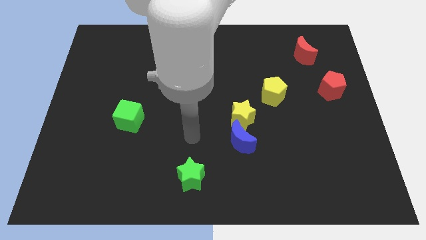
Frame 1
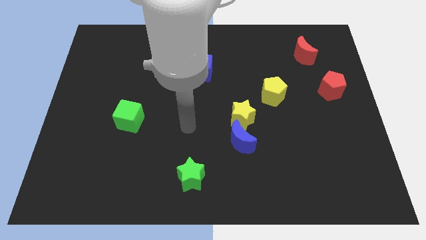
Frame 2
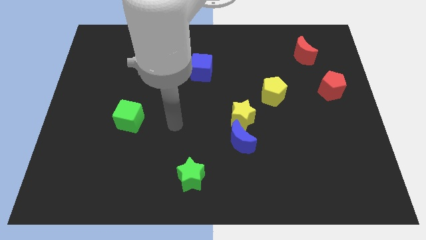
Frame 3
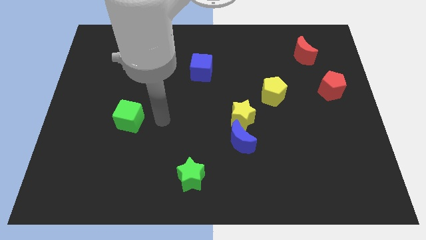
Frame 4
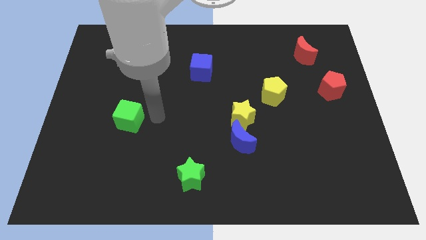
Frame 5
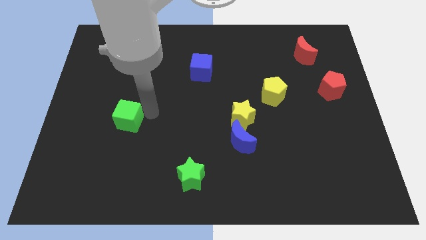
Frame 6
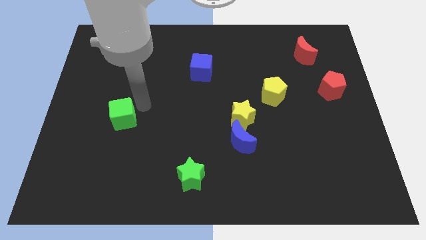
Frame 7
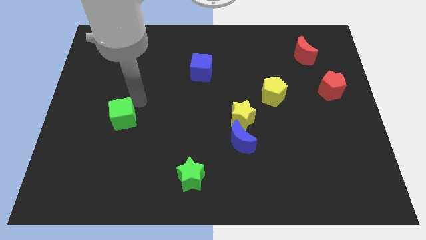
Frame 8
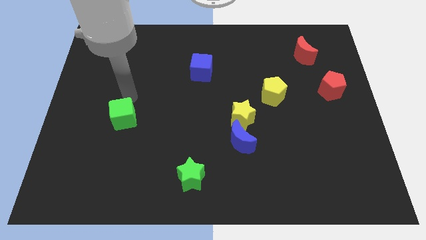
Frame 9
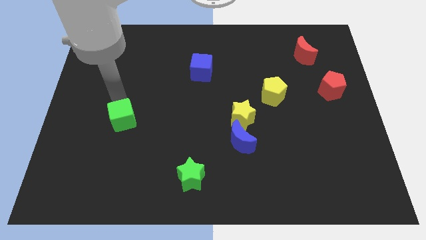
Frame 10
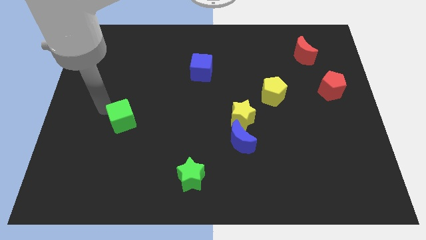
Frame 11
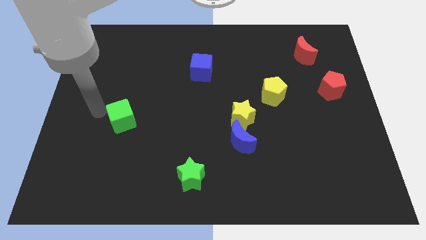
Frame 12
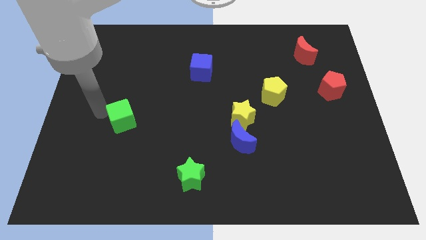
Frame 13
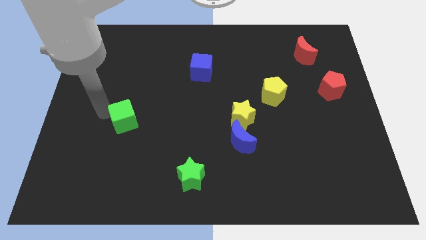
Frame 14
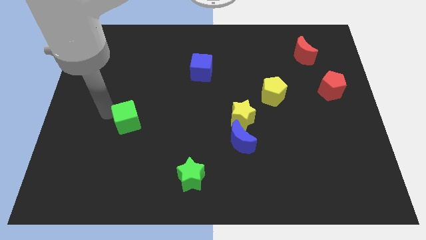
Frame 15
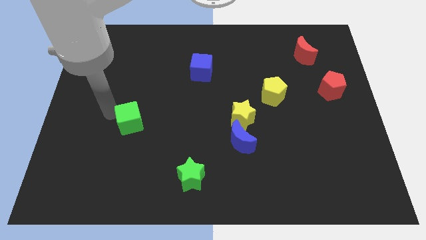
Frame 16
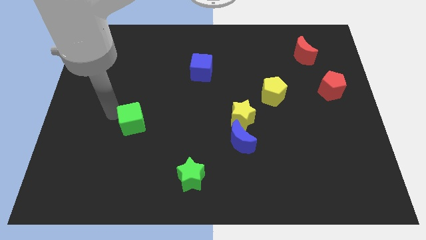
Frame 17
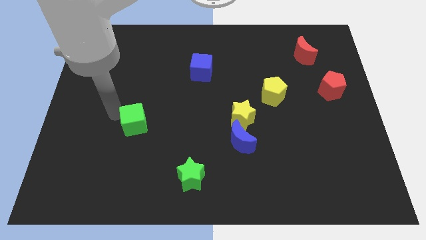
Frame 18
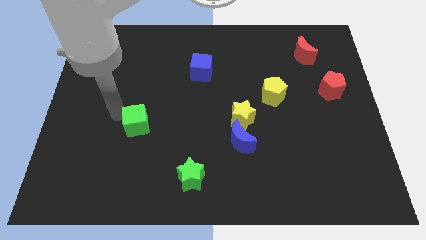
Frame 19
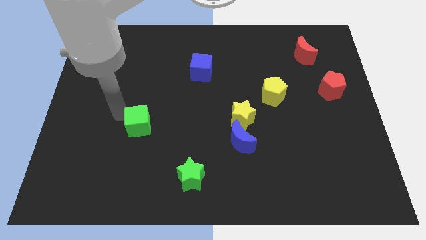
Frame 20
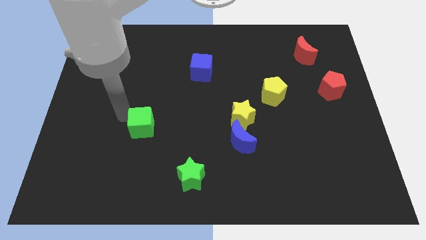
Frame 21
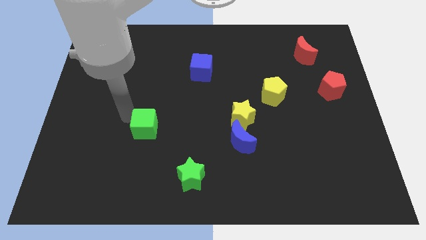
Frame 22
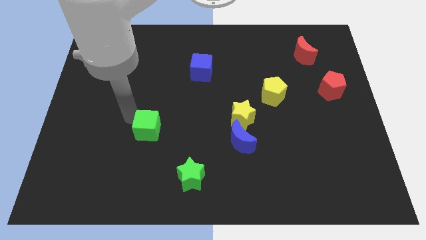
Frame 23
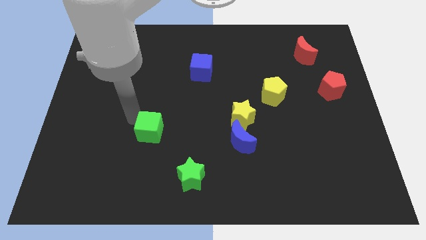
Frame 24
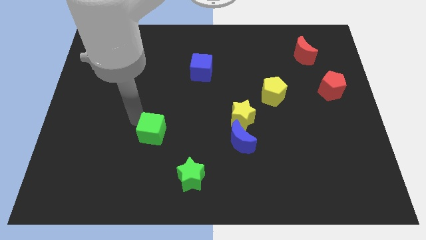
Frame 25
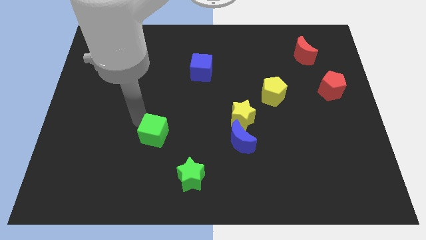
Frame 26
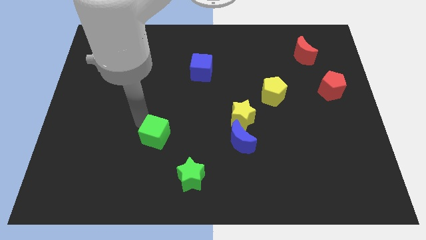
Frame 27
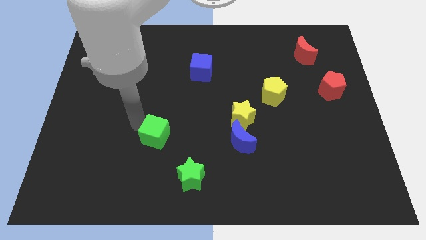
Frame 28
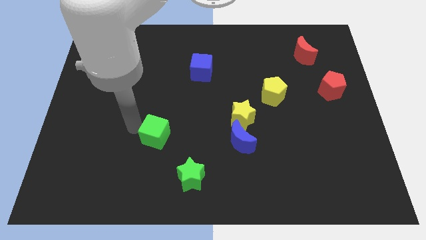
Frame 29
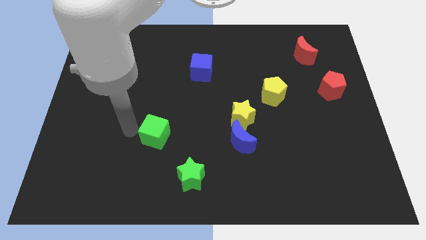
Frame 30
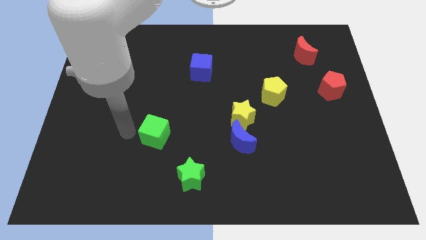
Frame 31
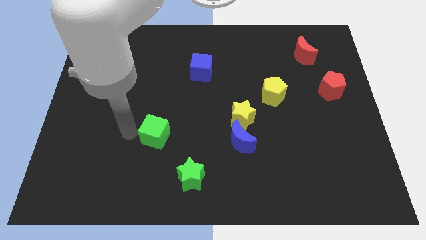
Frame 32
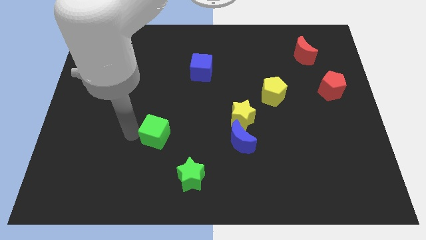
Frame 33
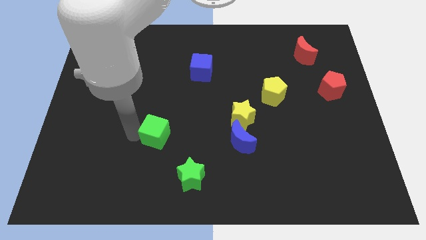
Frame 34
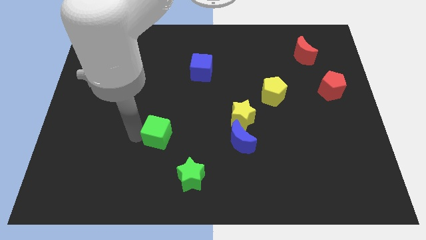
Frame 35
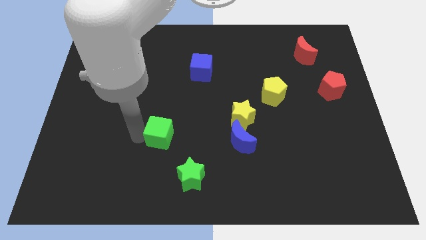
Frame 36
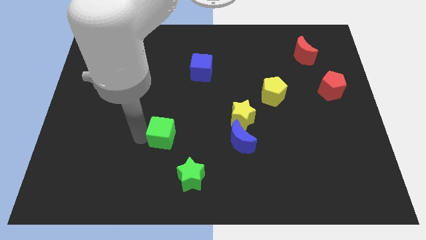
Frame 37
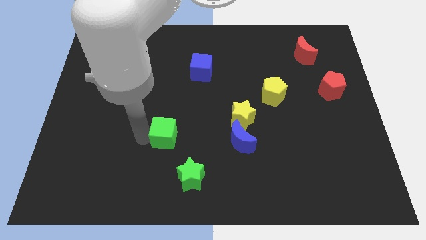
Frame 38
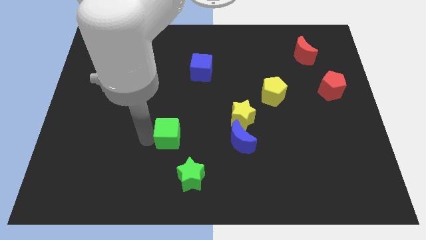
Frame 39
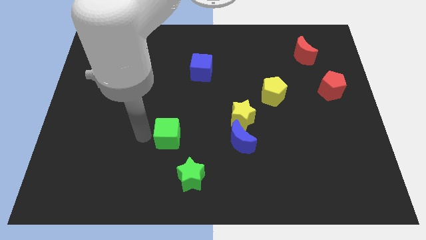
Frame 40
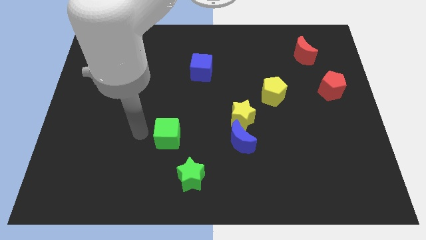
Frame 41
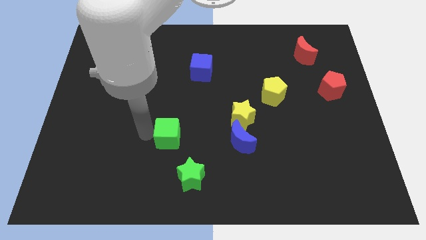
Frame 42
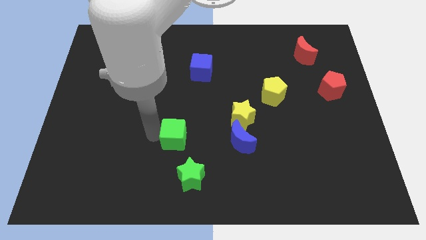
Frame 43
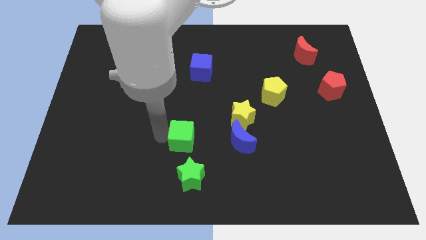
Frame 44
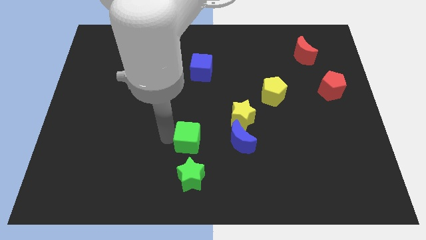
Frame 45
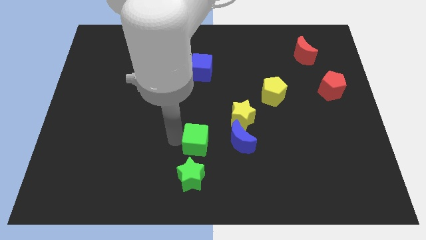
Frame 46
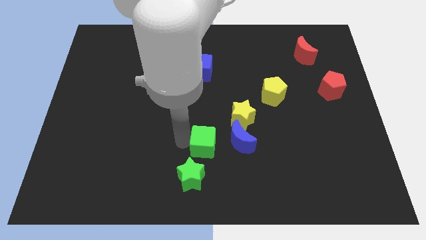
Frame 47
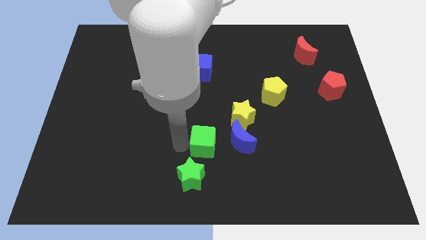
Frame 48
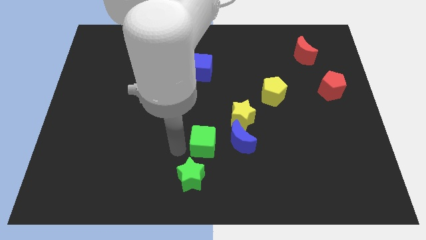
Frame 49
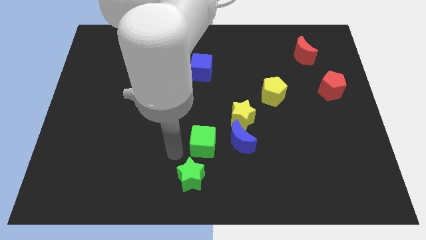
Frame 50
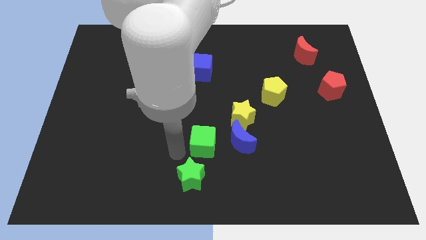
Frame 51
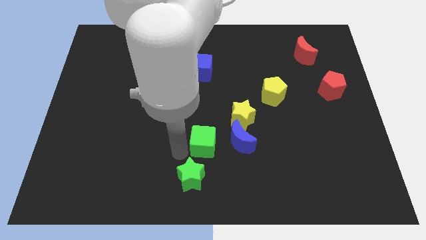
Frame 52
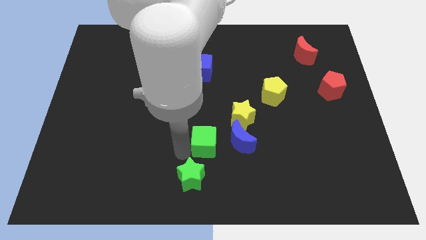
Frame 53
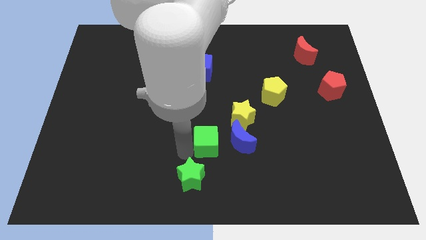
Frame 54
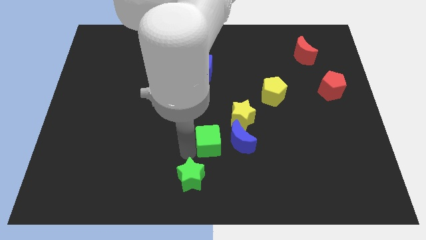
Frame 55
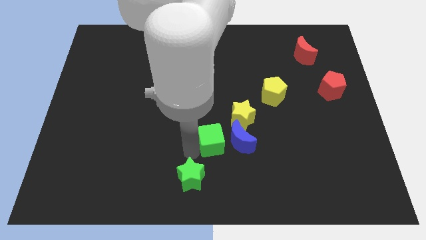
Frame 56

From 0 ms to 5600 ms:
move the green cube next to the blue moon

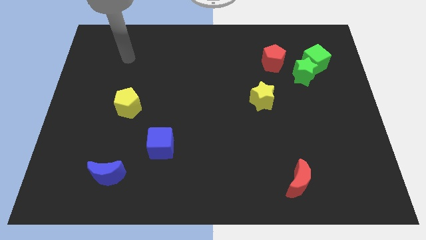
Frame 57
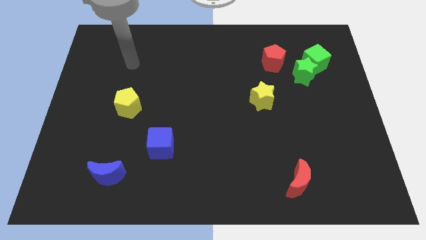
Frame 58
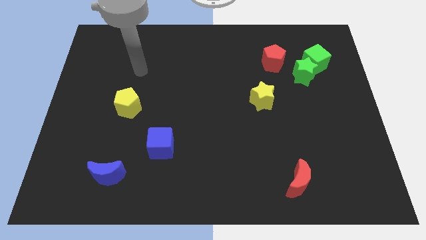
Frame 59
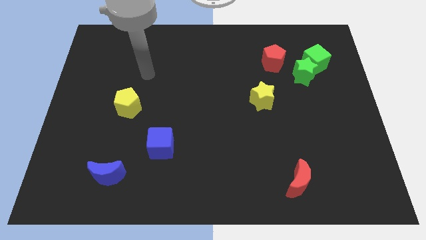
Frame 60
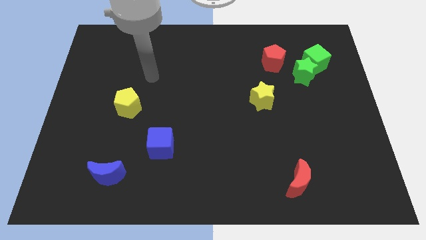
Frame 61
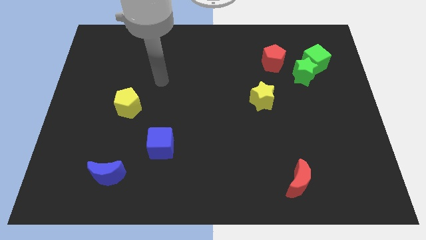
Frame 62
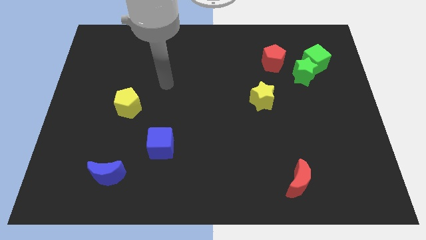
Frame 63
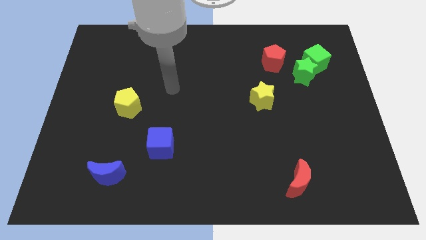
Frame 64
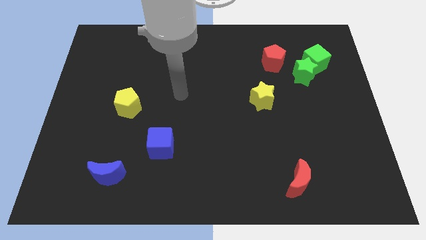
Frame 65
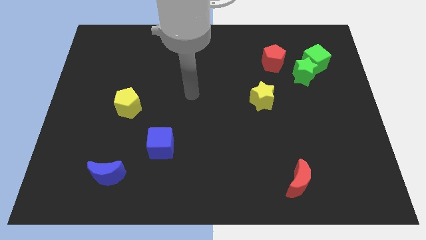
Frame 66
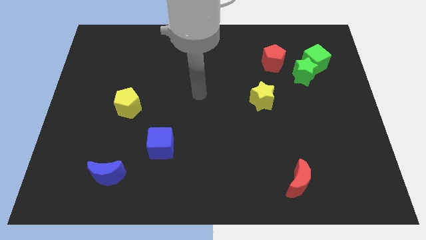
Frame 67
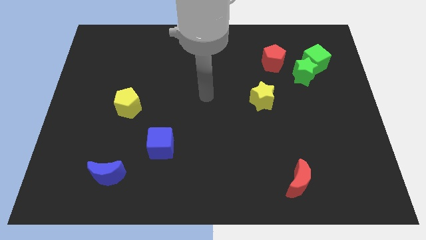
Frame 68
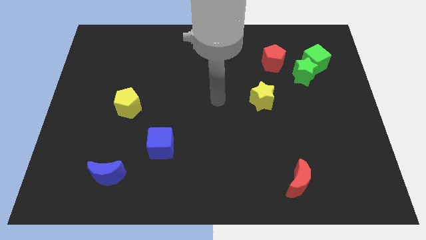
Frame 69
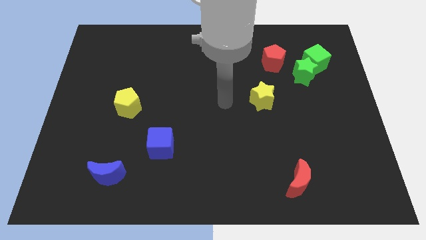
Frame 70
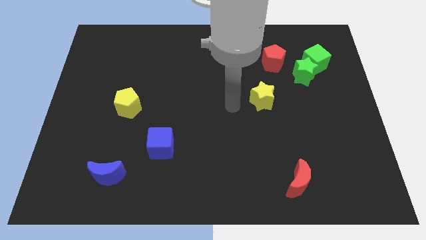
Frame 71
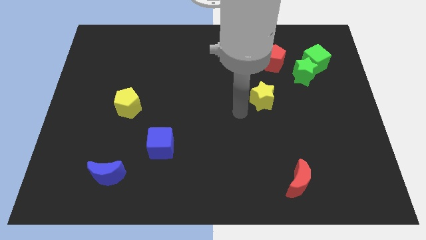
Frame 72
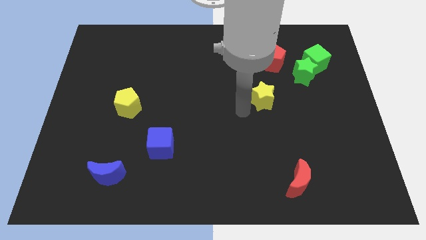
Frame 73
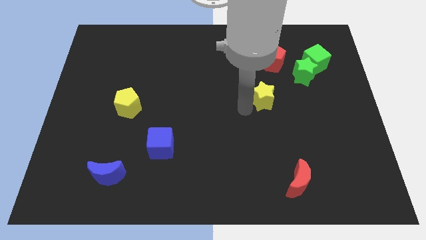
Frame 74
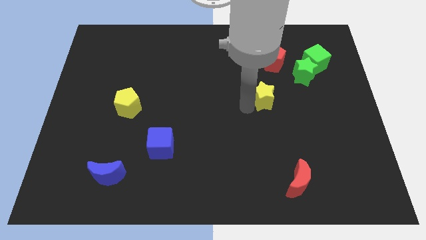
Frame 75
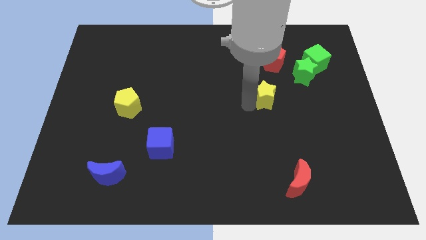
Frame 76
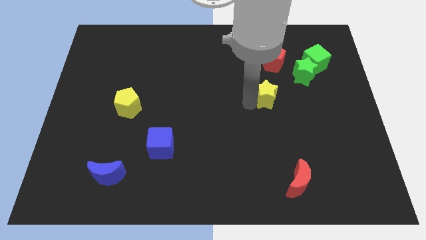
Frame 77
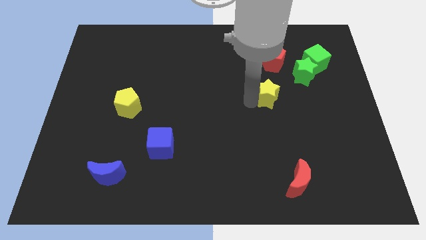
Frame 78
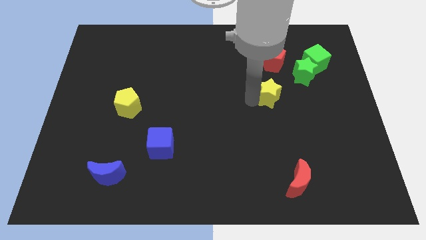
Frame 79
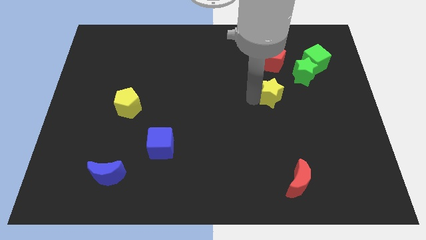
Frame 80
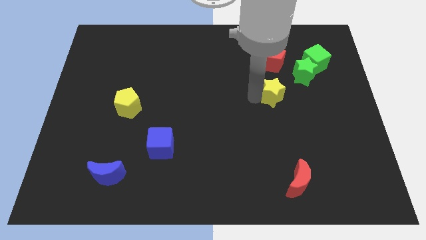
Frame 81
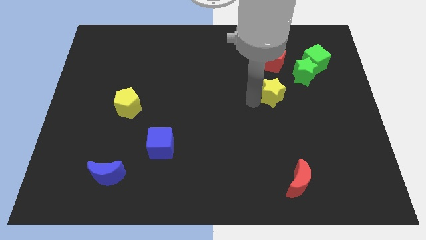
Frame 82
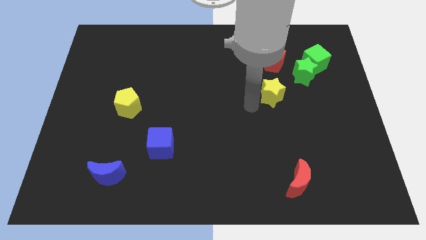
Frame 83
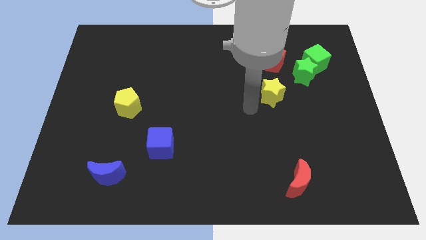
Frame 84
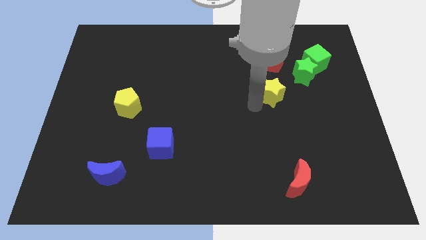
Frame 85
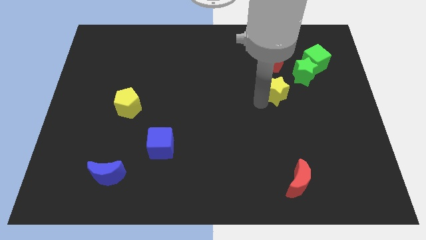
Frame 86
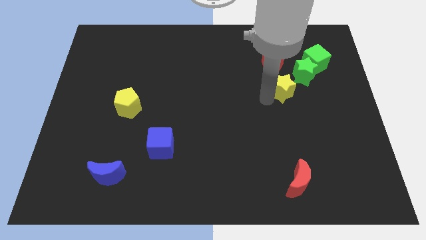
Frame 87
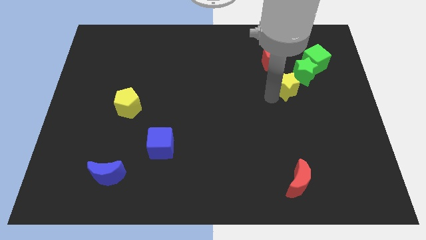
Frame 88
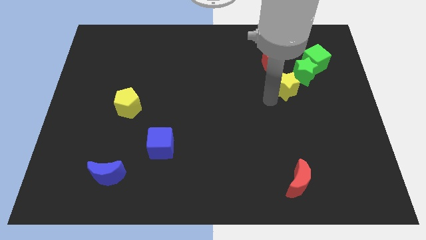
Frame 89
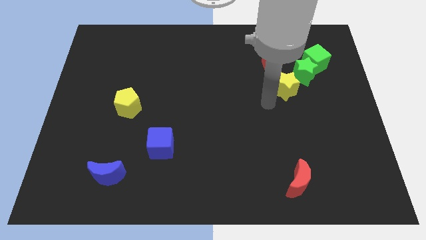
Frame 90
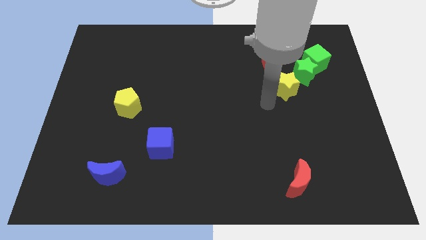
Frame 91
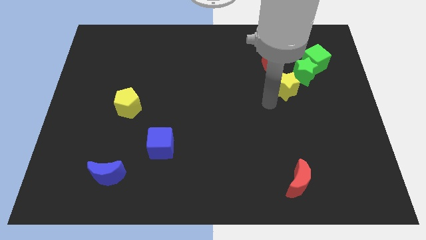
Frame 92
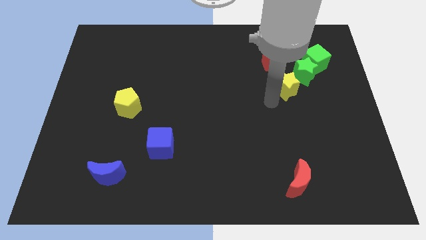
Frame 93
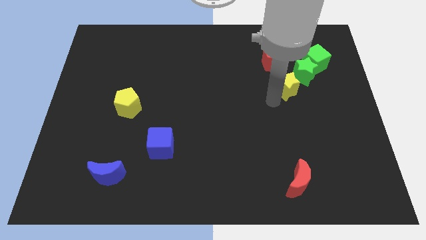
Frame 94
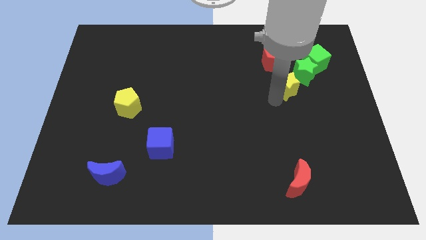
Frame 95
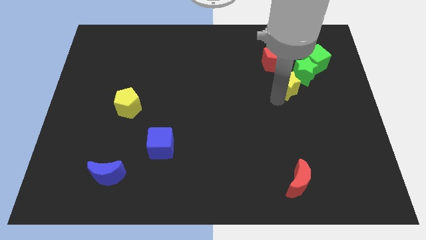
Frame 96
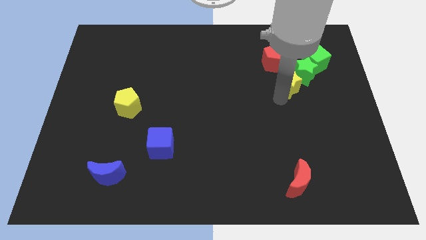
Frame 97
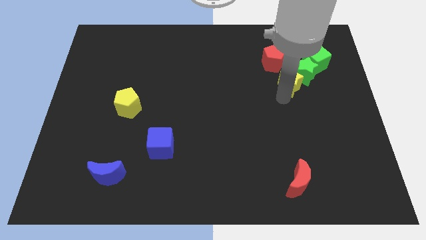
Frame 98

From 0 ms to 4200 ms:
put the yellow star to the green star
